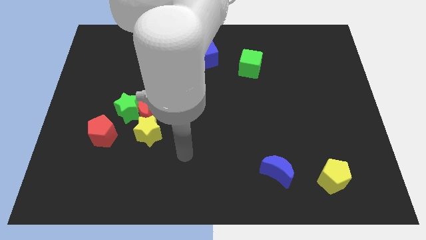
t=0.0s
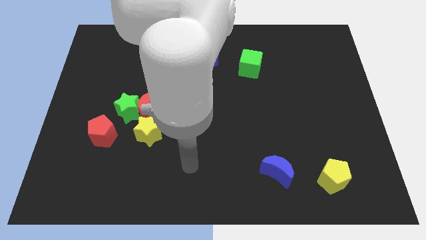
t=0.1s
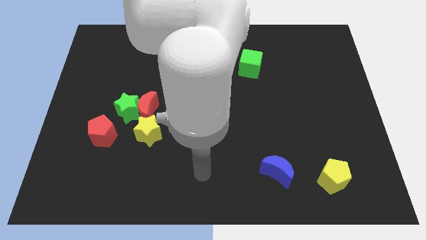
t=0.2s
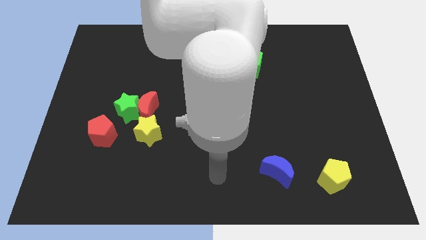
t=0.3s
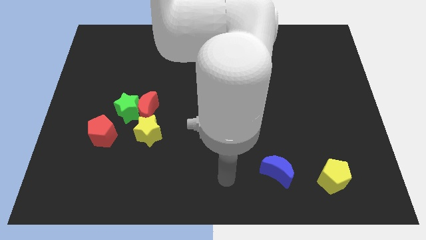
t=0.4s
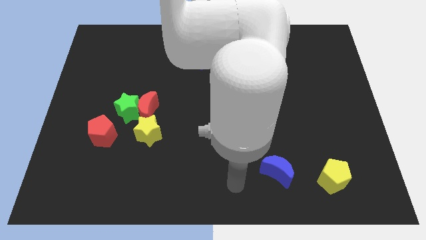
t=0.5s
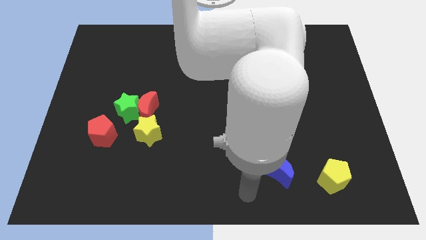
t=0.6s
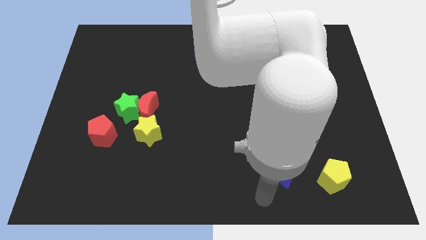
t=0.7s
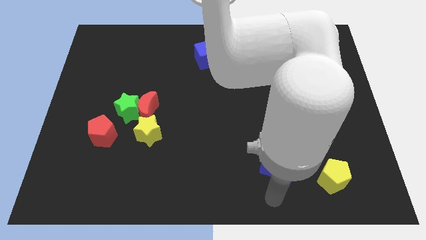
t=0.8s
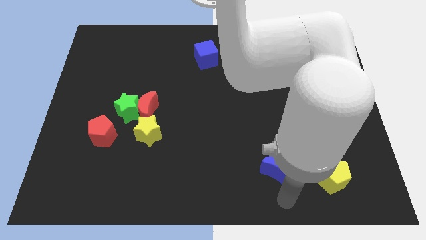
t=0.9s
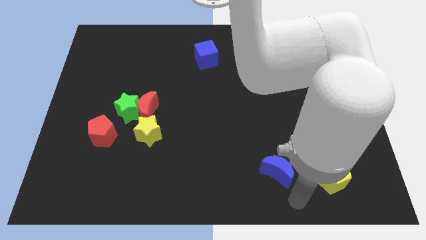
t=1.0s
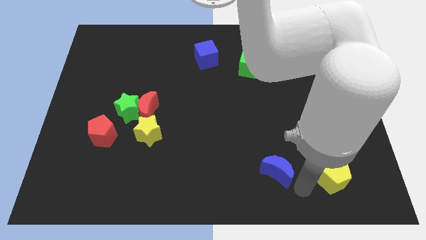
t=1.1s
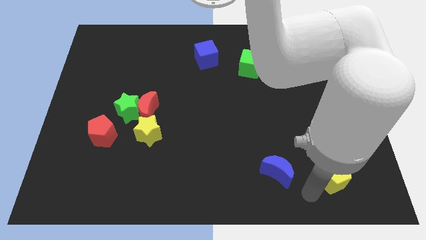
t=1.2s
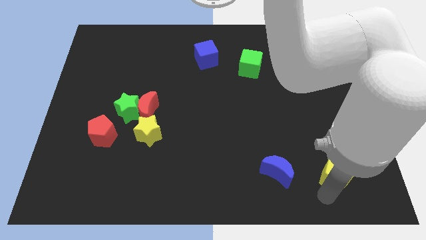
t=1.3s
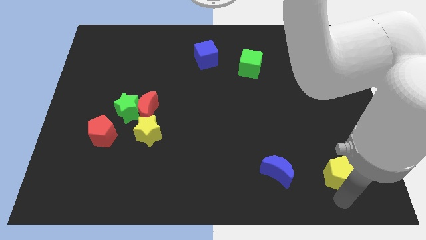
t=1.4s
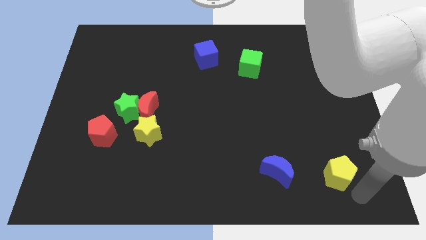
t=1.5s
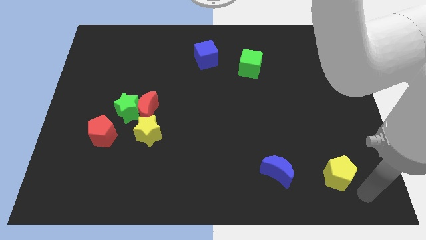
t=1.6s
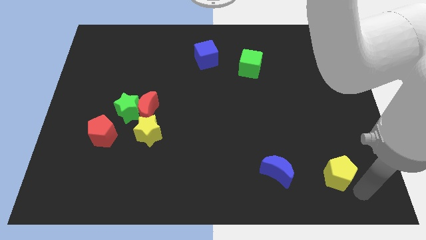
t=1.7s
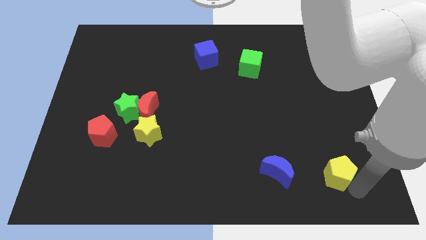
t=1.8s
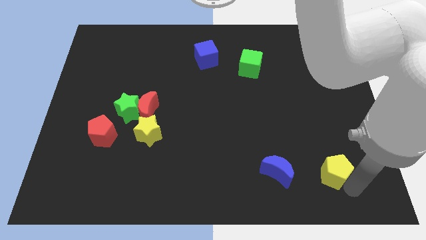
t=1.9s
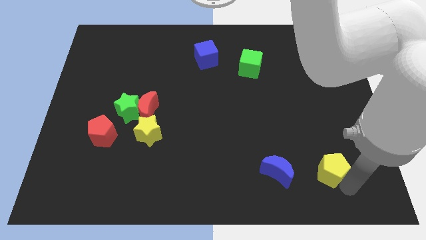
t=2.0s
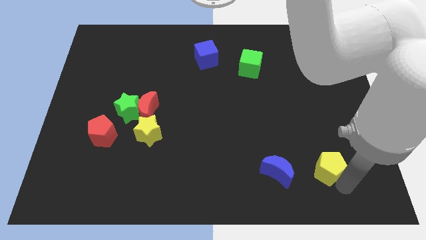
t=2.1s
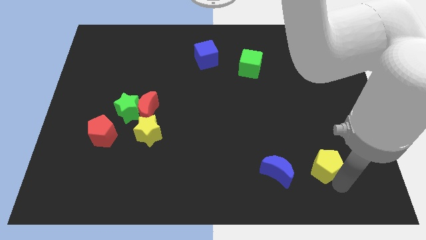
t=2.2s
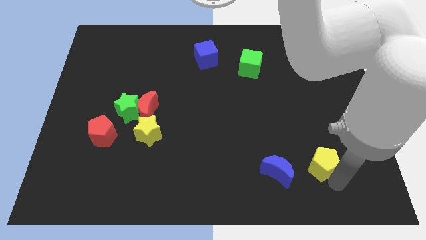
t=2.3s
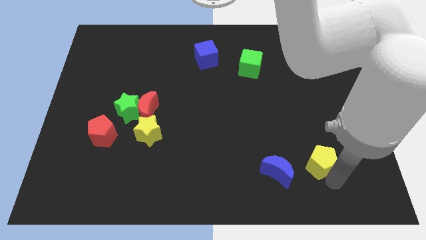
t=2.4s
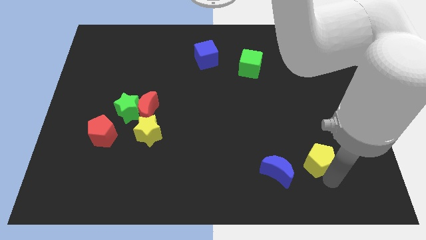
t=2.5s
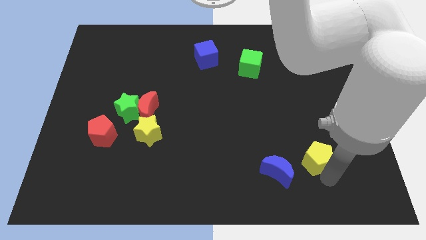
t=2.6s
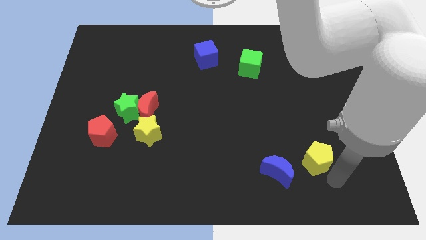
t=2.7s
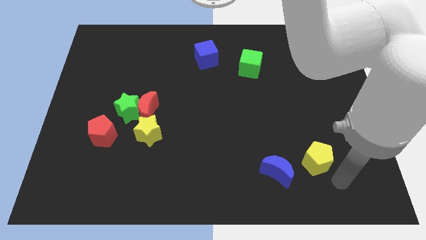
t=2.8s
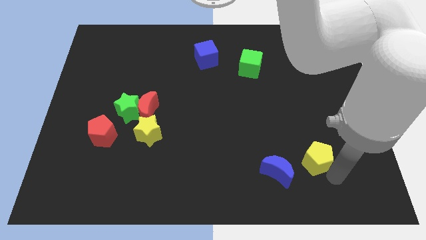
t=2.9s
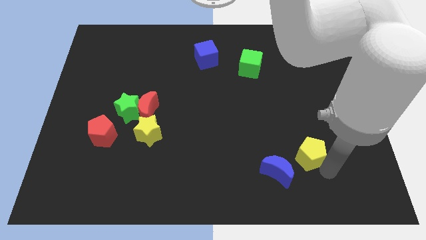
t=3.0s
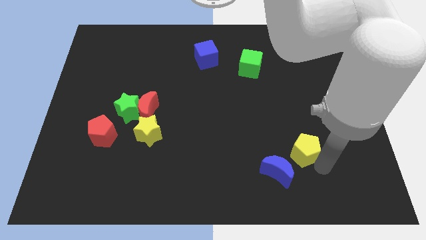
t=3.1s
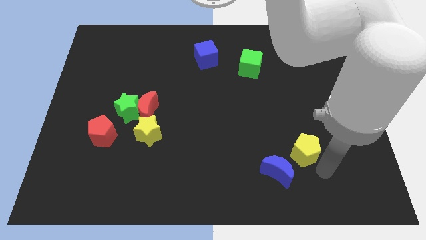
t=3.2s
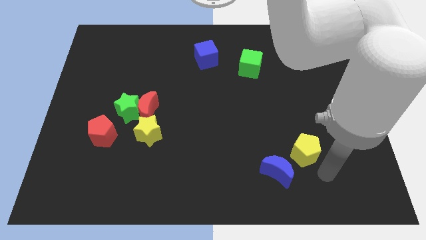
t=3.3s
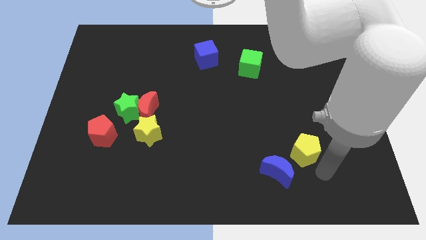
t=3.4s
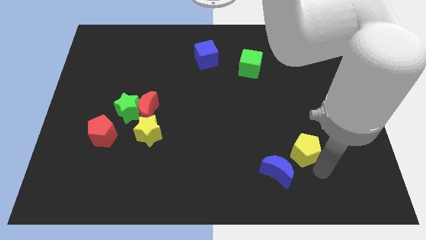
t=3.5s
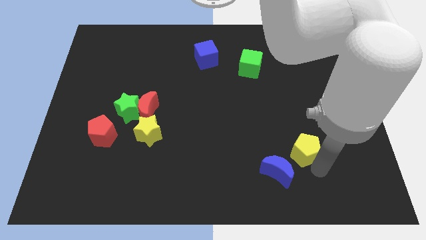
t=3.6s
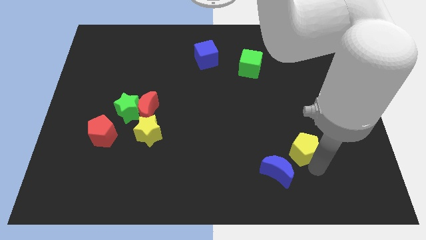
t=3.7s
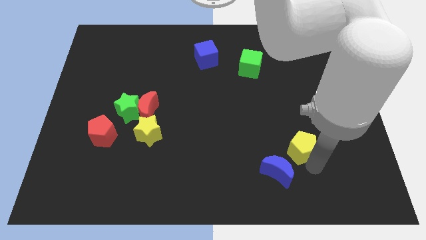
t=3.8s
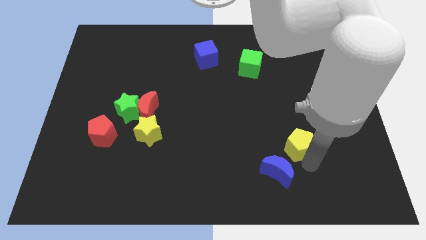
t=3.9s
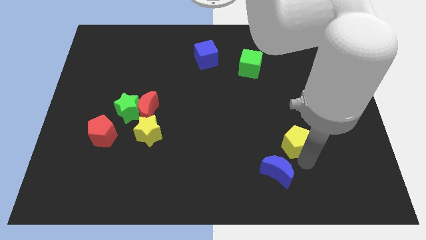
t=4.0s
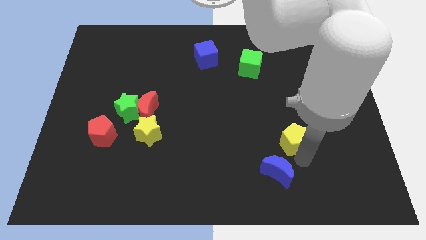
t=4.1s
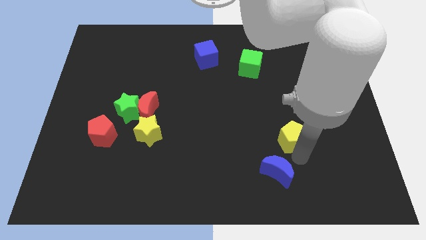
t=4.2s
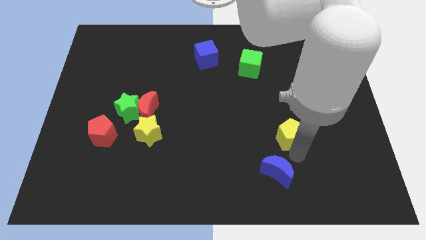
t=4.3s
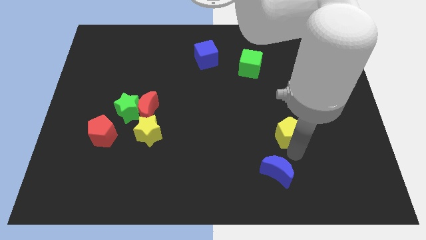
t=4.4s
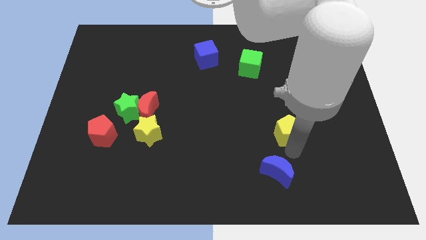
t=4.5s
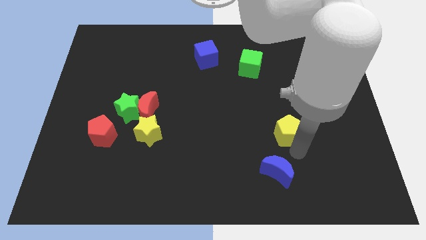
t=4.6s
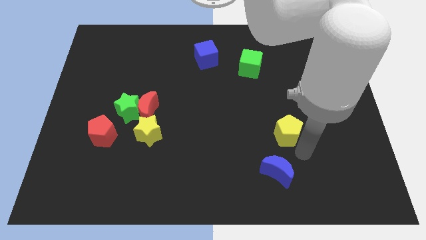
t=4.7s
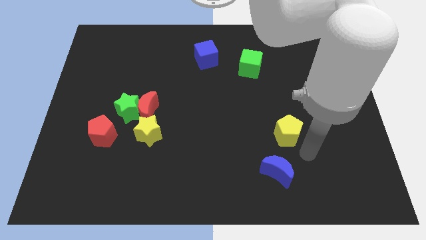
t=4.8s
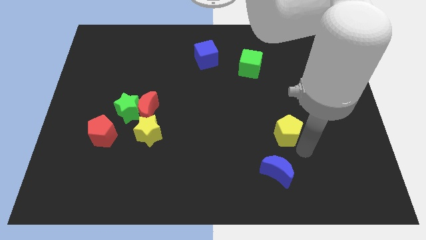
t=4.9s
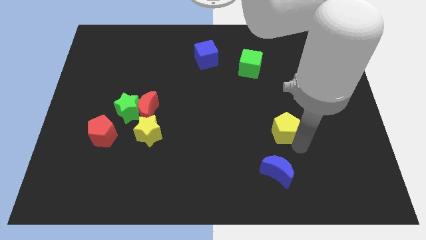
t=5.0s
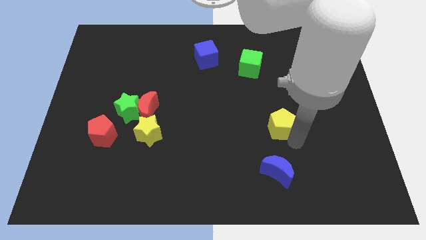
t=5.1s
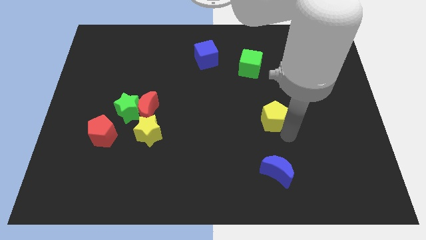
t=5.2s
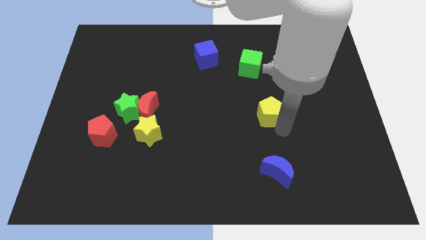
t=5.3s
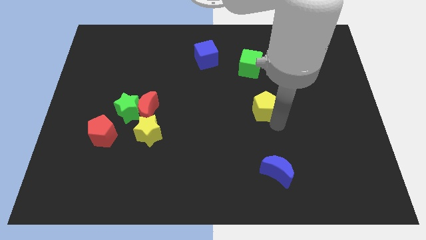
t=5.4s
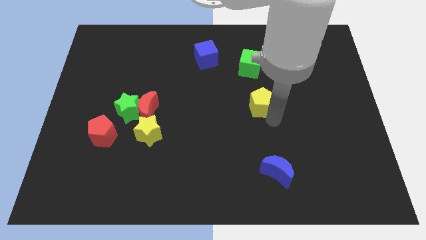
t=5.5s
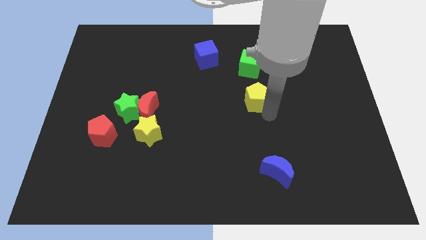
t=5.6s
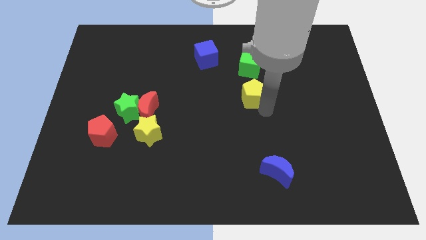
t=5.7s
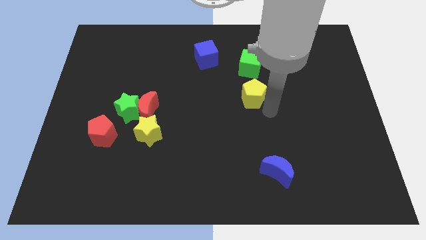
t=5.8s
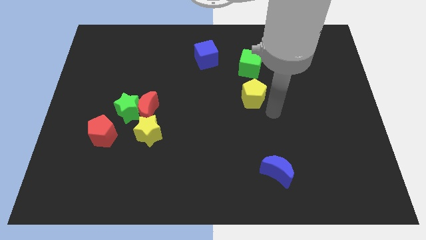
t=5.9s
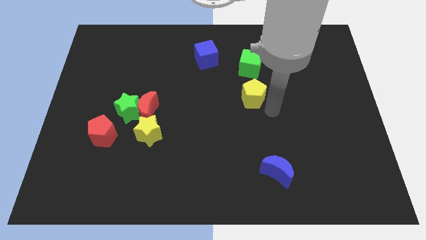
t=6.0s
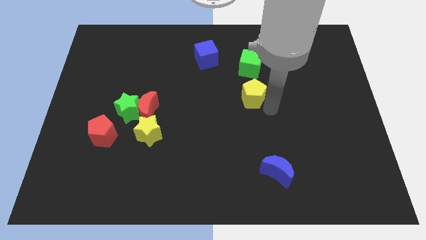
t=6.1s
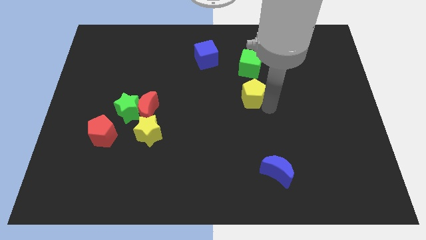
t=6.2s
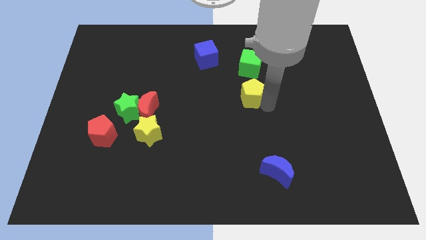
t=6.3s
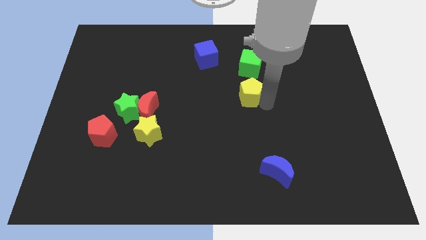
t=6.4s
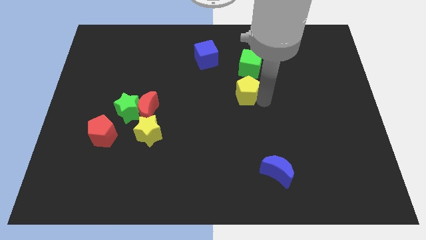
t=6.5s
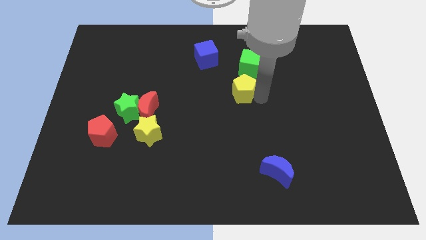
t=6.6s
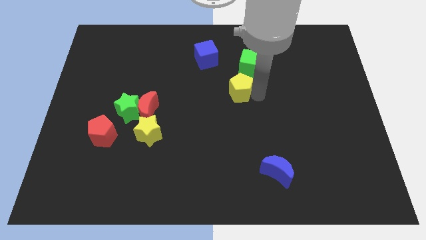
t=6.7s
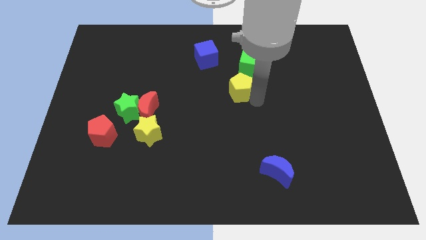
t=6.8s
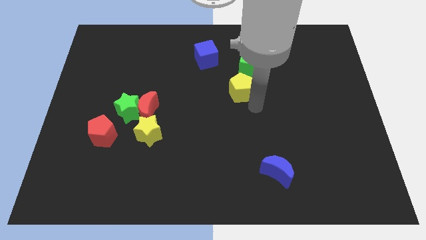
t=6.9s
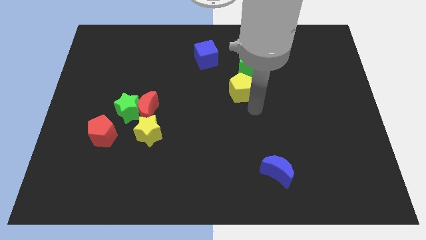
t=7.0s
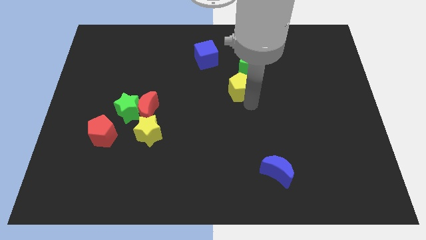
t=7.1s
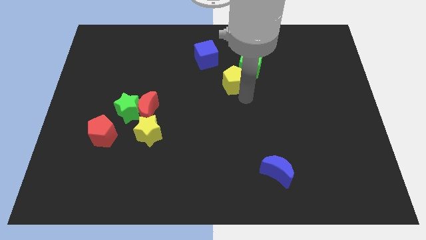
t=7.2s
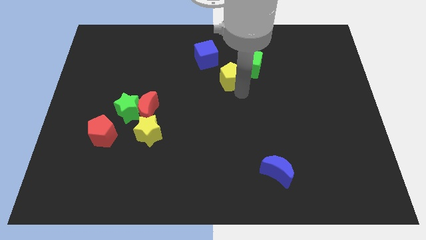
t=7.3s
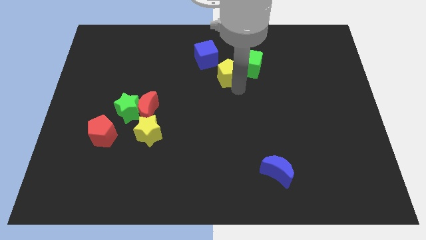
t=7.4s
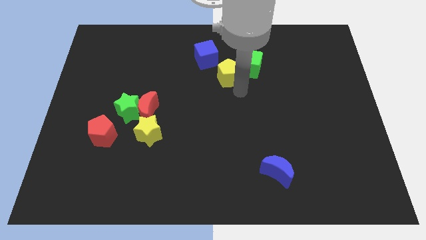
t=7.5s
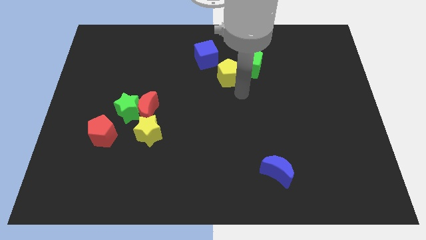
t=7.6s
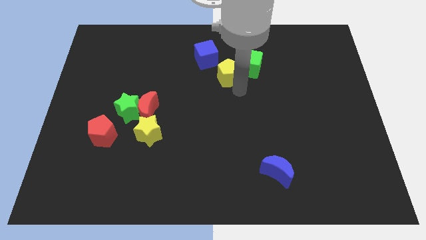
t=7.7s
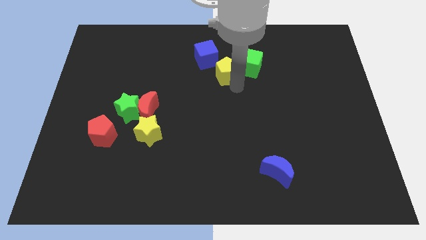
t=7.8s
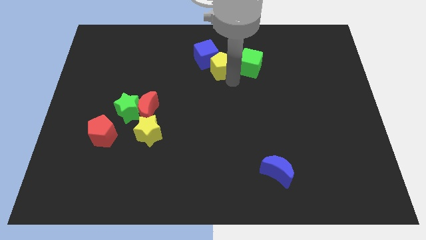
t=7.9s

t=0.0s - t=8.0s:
put the yellow pentagon to the blue cube
